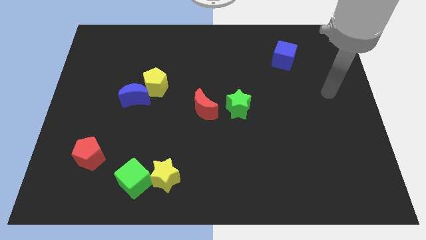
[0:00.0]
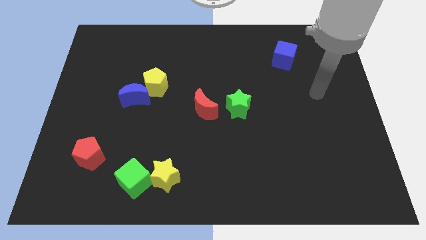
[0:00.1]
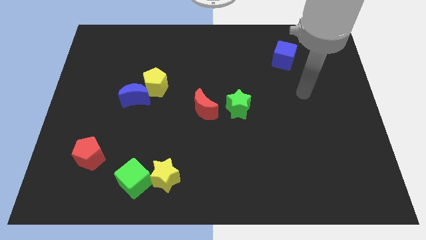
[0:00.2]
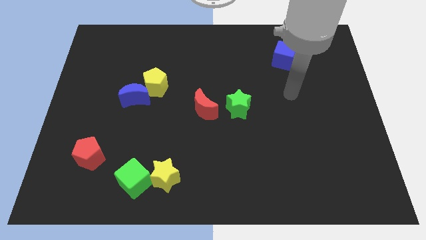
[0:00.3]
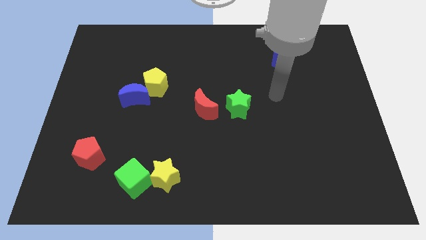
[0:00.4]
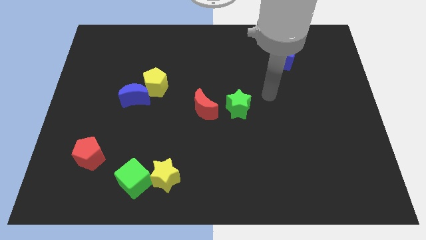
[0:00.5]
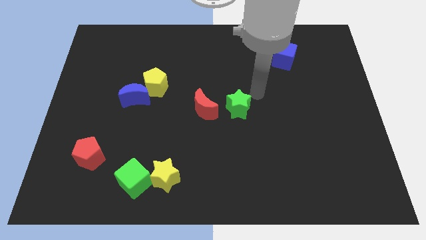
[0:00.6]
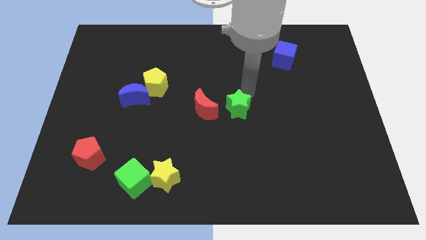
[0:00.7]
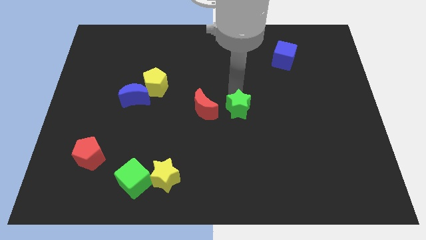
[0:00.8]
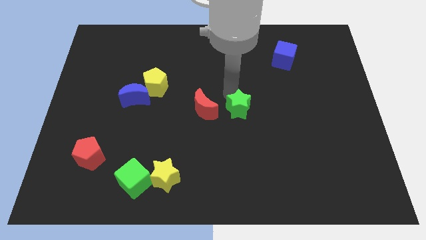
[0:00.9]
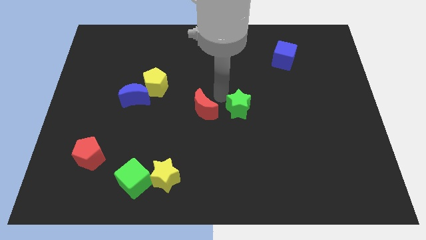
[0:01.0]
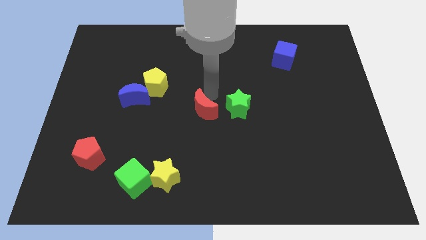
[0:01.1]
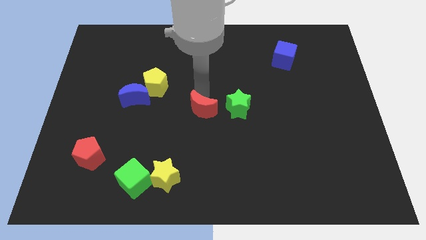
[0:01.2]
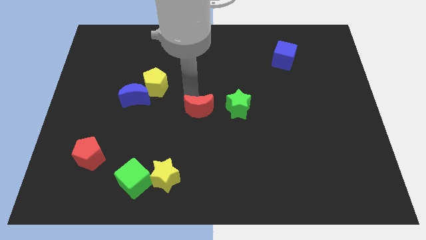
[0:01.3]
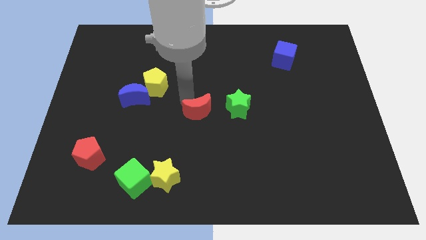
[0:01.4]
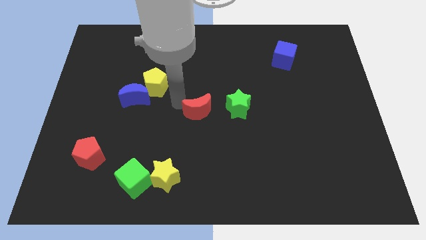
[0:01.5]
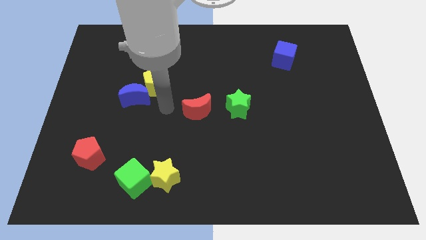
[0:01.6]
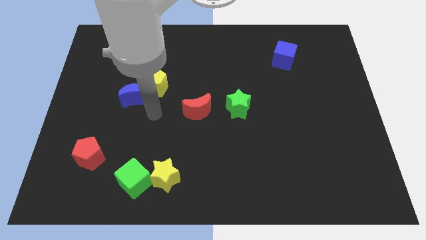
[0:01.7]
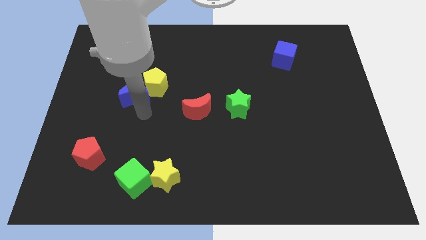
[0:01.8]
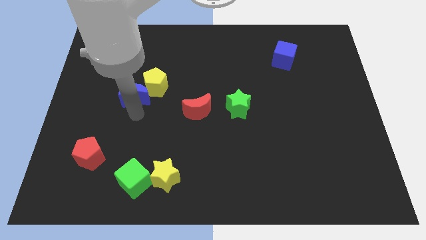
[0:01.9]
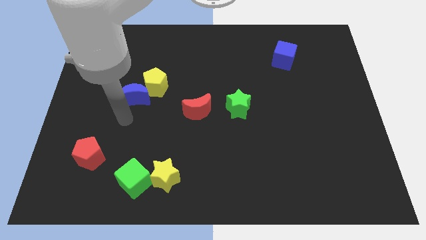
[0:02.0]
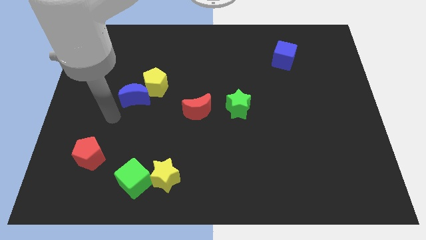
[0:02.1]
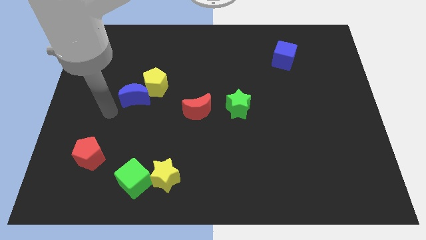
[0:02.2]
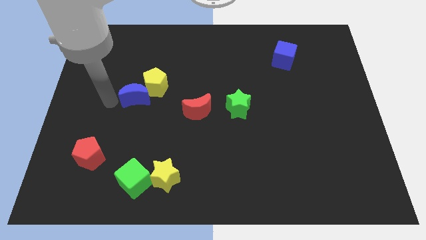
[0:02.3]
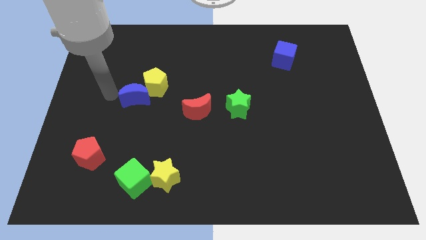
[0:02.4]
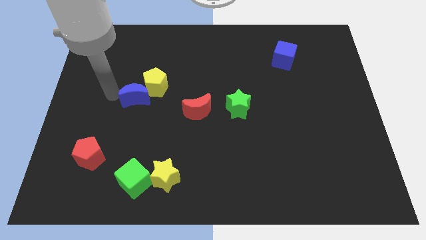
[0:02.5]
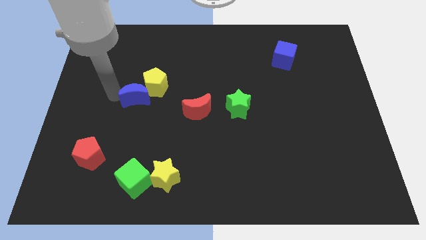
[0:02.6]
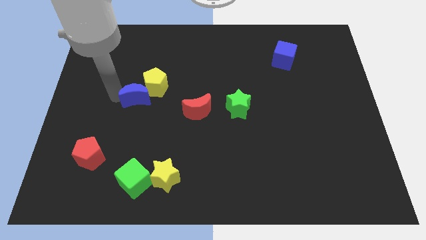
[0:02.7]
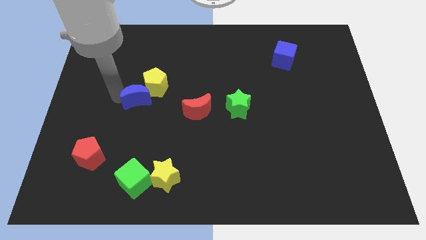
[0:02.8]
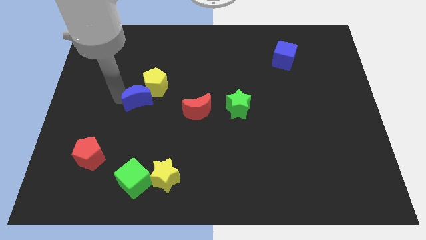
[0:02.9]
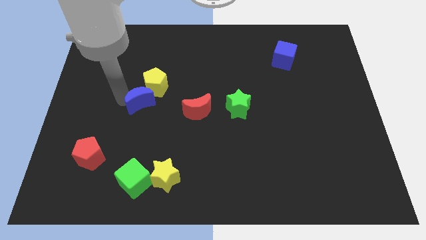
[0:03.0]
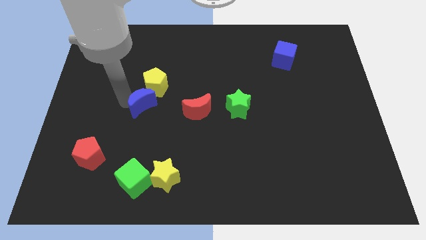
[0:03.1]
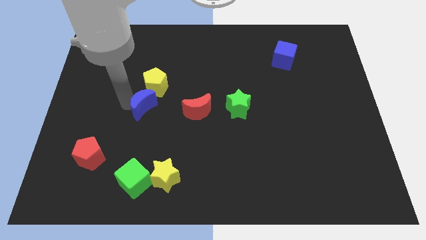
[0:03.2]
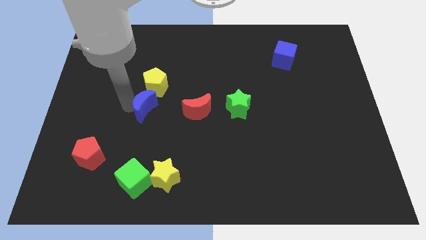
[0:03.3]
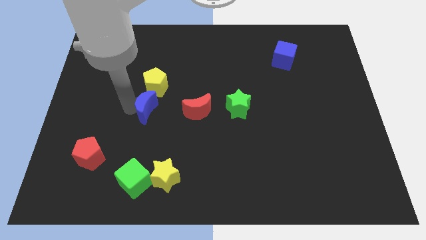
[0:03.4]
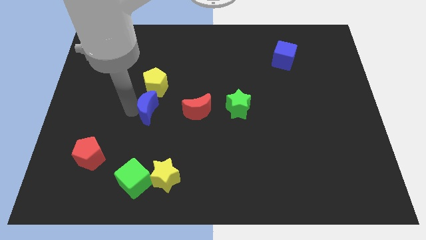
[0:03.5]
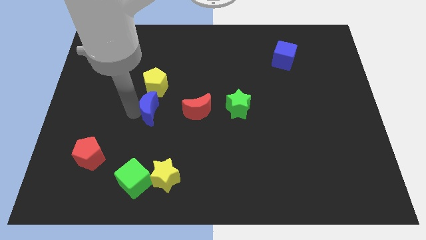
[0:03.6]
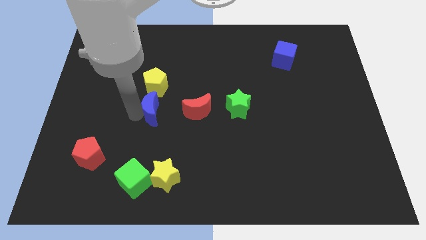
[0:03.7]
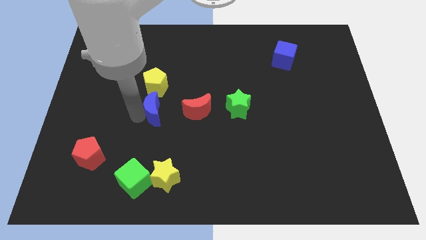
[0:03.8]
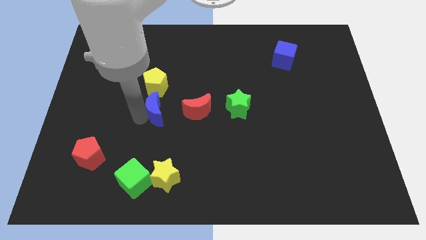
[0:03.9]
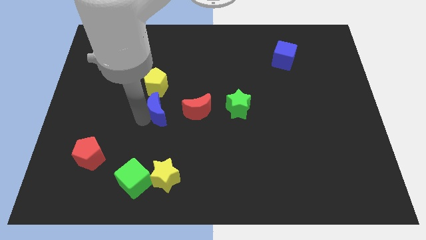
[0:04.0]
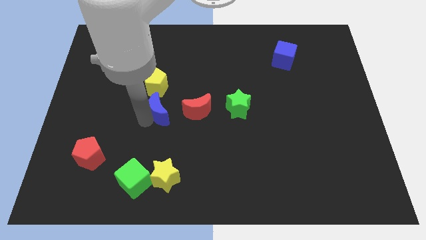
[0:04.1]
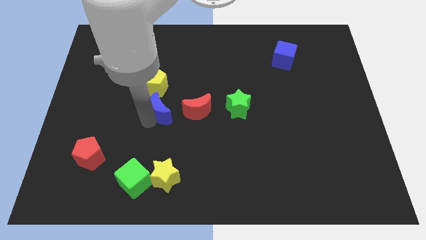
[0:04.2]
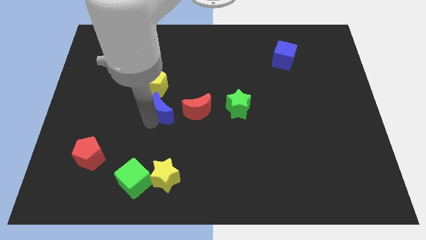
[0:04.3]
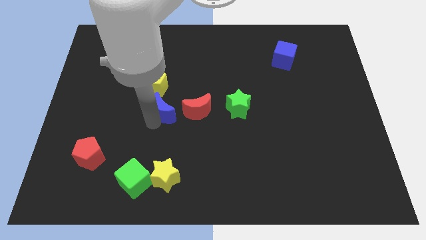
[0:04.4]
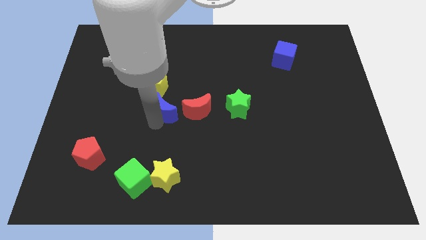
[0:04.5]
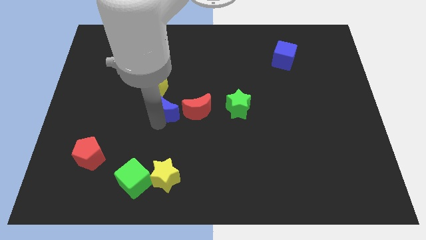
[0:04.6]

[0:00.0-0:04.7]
push the blue moon to the right slightly

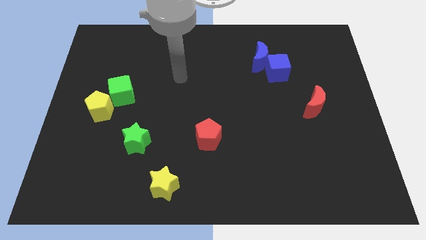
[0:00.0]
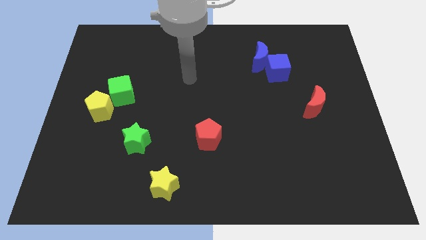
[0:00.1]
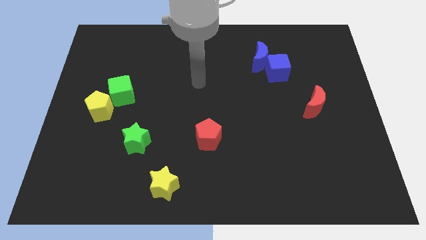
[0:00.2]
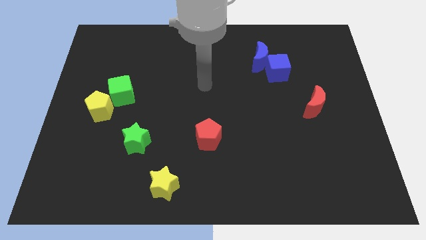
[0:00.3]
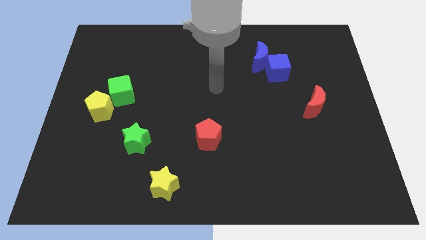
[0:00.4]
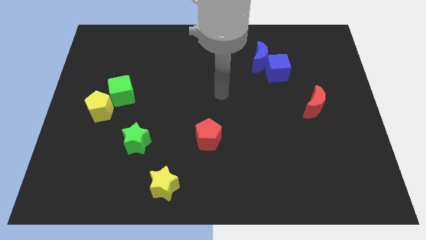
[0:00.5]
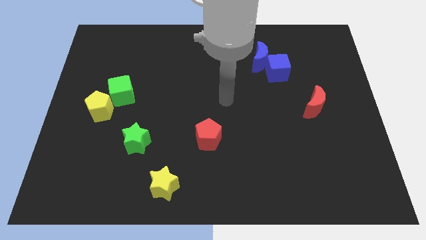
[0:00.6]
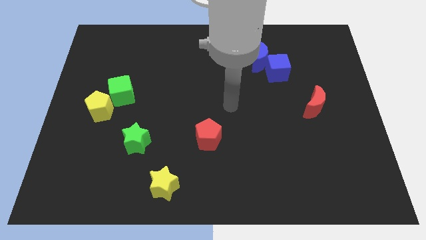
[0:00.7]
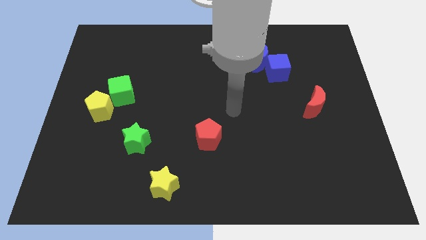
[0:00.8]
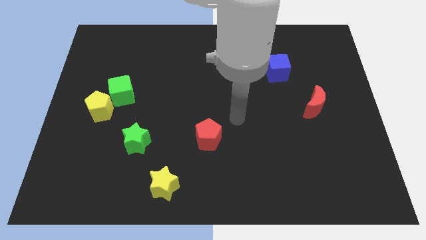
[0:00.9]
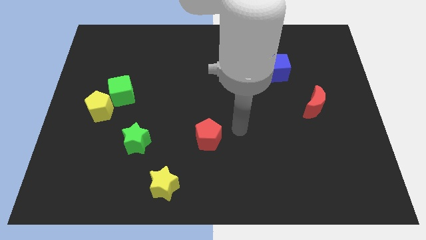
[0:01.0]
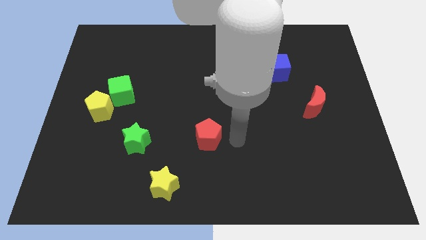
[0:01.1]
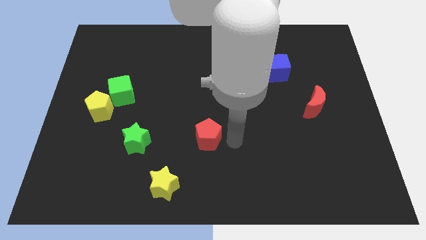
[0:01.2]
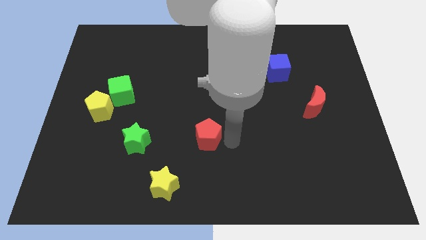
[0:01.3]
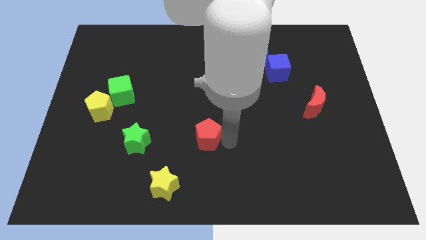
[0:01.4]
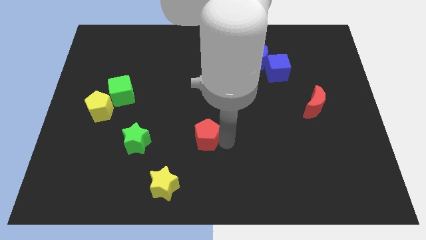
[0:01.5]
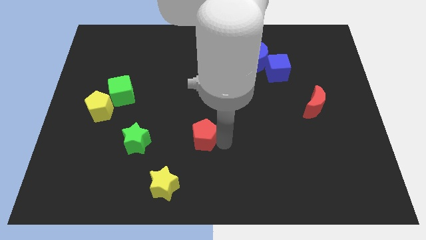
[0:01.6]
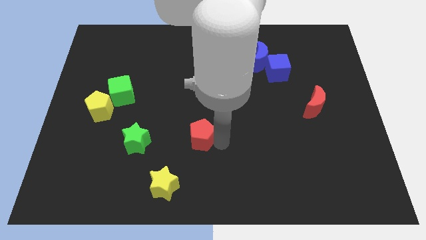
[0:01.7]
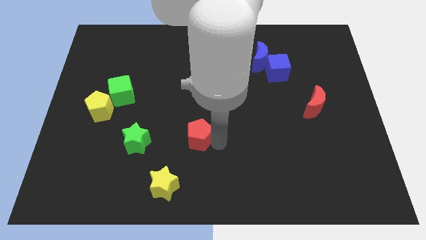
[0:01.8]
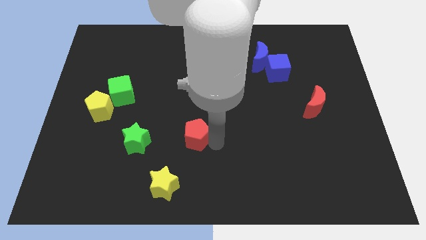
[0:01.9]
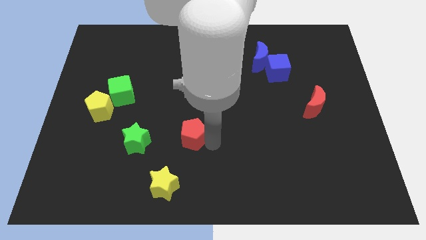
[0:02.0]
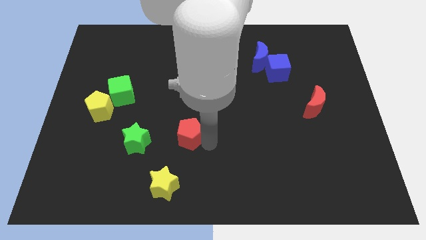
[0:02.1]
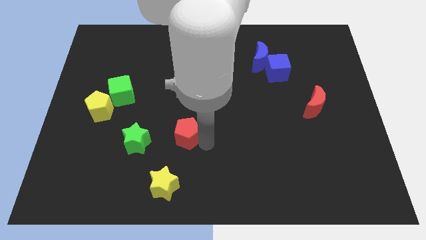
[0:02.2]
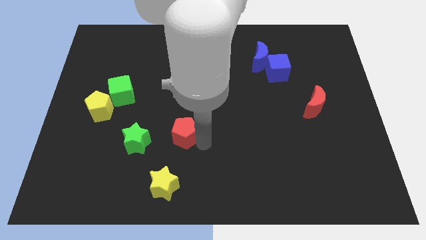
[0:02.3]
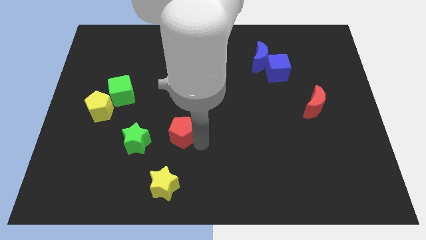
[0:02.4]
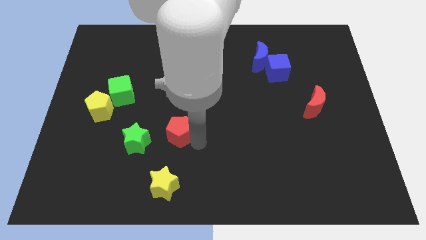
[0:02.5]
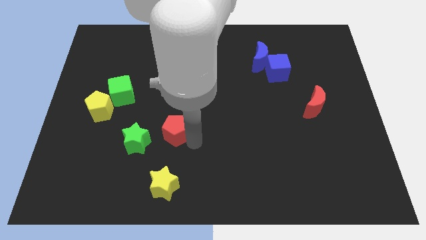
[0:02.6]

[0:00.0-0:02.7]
slide the red pentagon left a bit

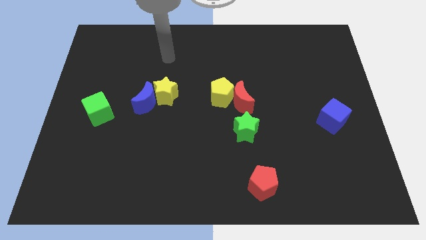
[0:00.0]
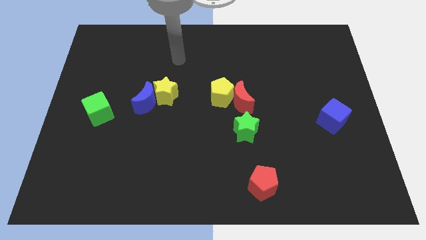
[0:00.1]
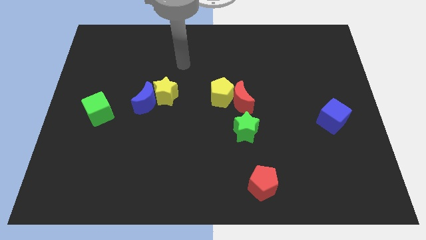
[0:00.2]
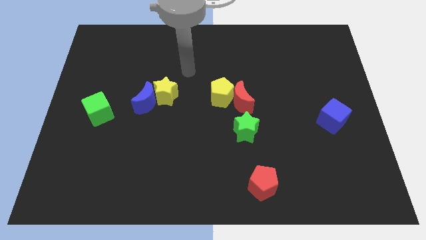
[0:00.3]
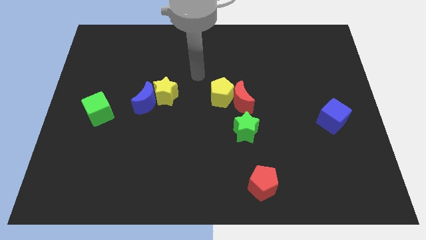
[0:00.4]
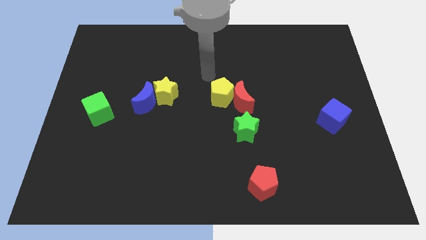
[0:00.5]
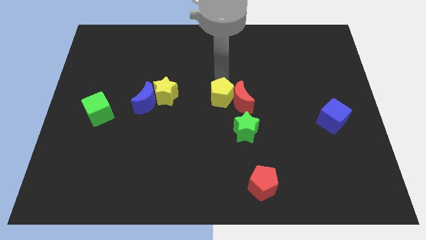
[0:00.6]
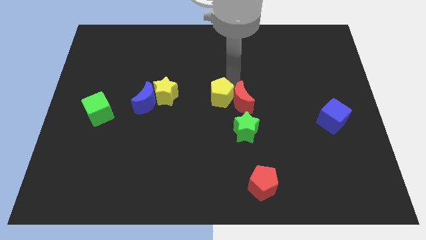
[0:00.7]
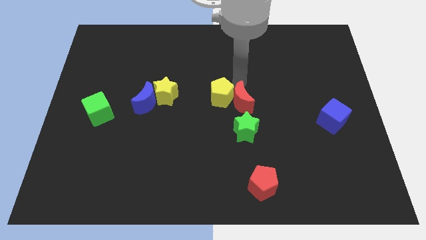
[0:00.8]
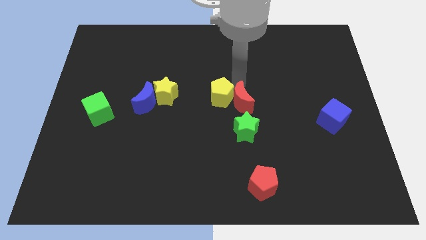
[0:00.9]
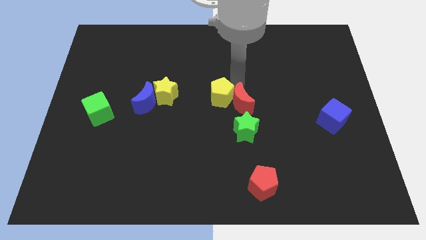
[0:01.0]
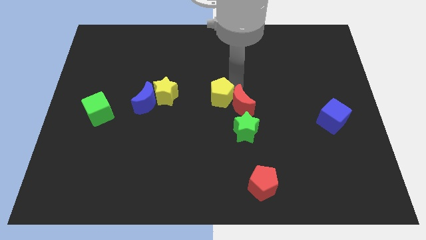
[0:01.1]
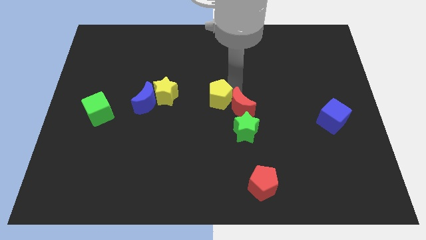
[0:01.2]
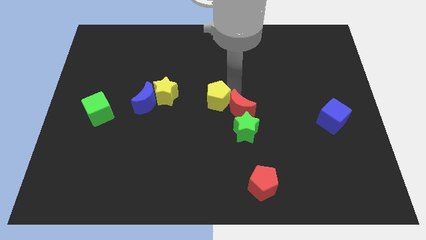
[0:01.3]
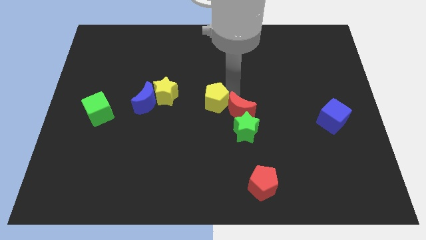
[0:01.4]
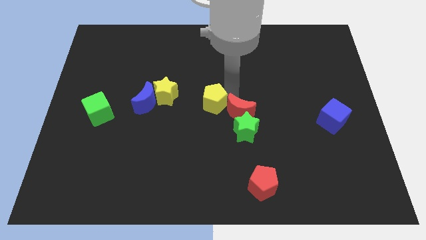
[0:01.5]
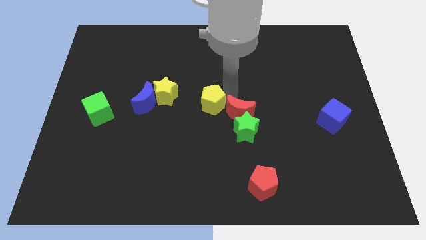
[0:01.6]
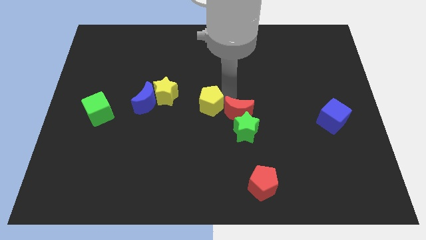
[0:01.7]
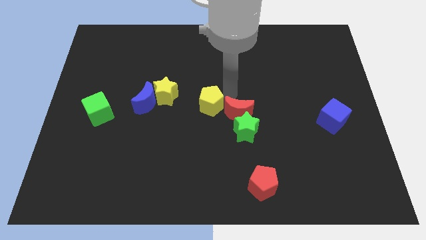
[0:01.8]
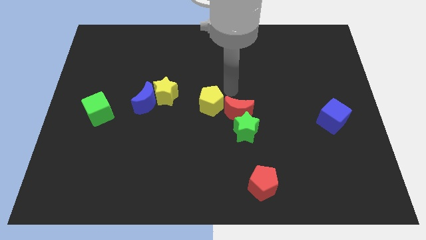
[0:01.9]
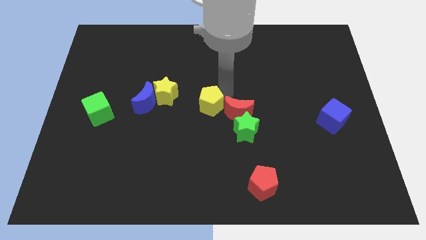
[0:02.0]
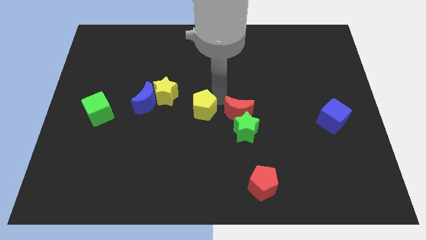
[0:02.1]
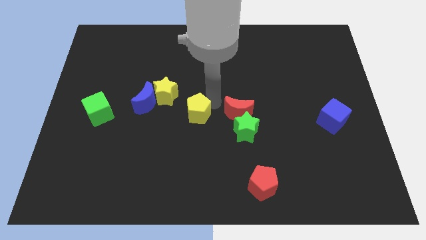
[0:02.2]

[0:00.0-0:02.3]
slightly slide the yellow pentagon down and to the left diagonally
